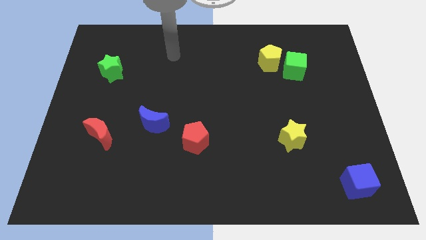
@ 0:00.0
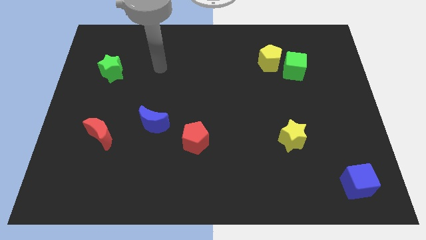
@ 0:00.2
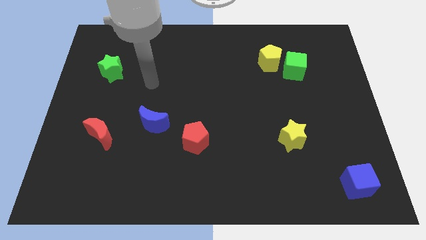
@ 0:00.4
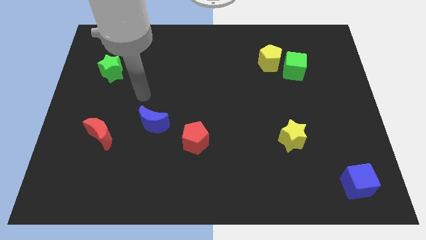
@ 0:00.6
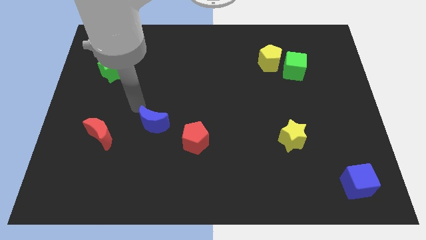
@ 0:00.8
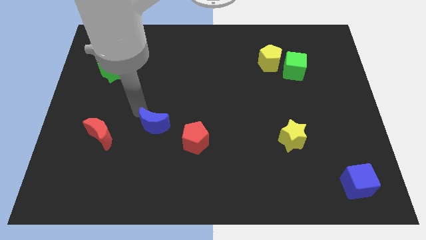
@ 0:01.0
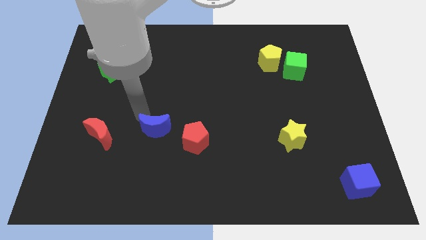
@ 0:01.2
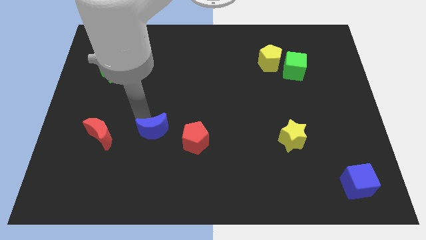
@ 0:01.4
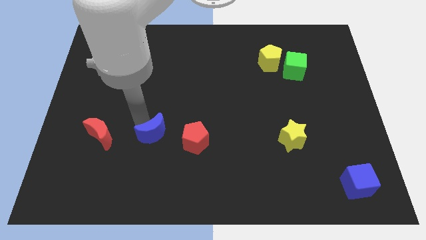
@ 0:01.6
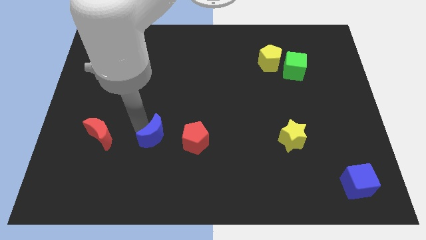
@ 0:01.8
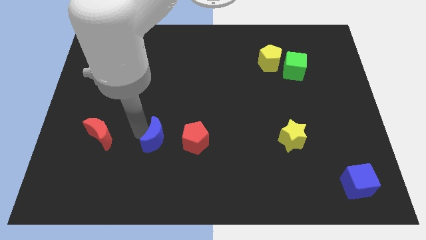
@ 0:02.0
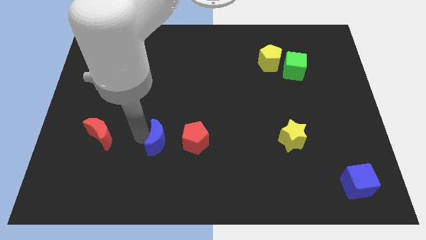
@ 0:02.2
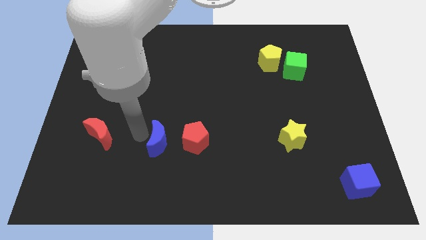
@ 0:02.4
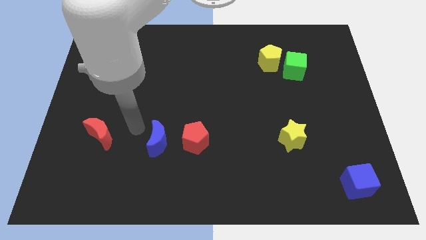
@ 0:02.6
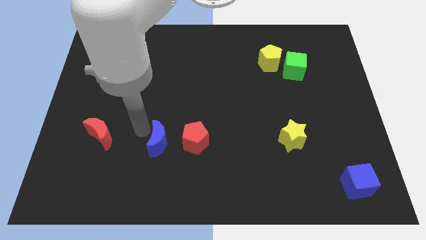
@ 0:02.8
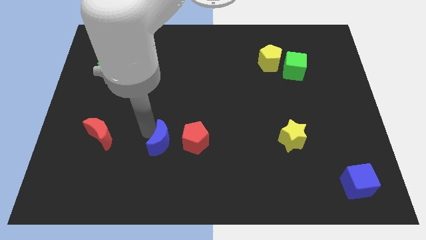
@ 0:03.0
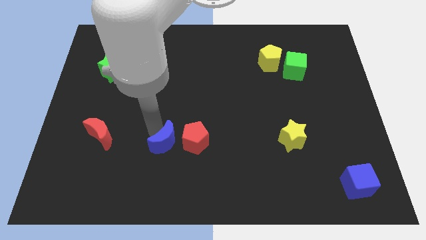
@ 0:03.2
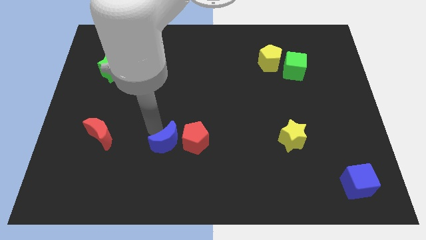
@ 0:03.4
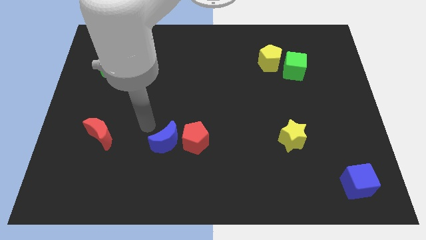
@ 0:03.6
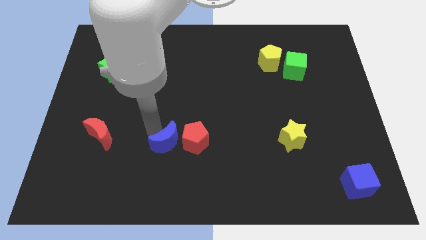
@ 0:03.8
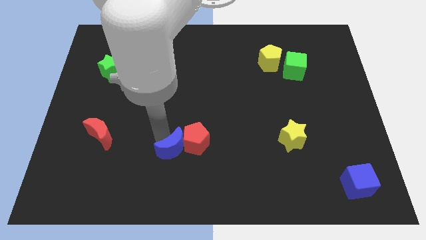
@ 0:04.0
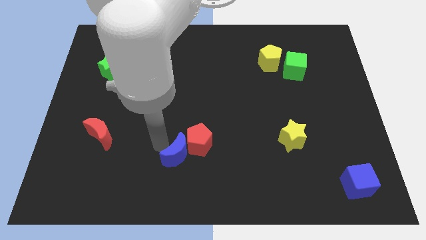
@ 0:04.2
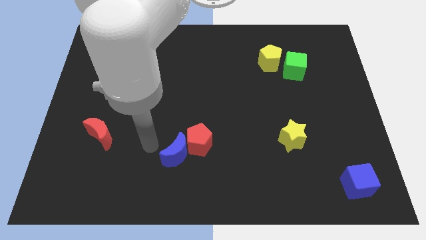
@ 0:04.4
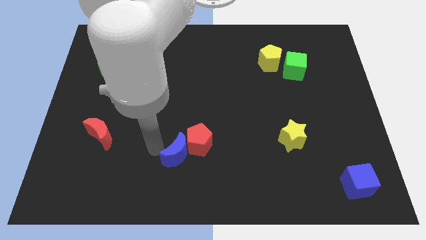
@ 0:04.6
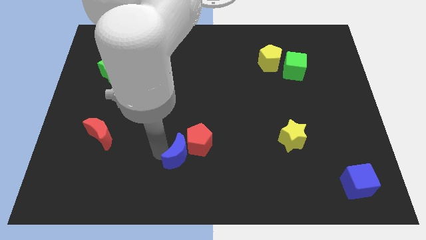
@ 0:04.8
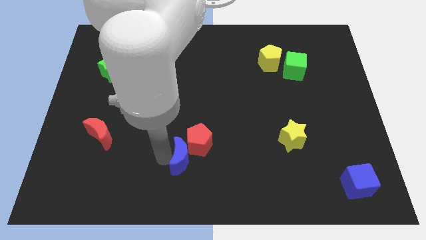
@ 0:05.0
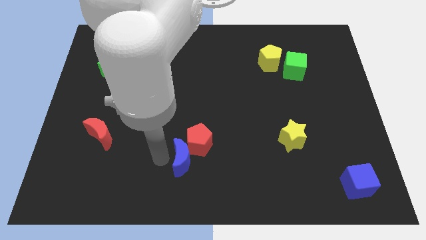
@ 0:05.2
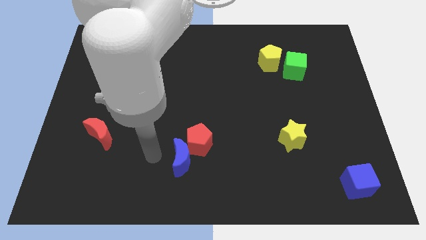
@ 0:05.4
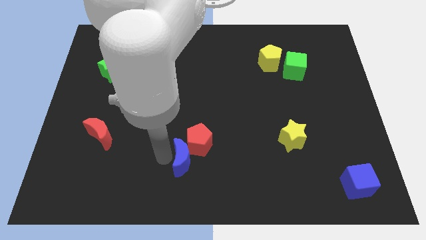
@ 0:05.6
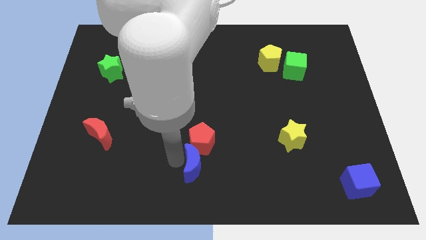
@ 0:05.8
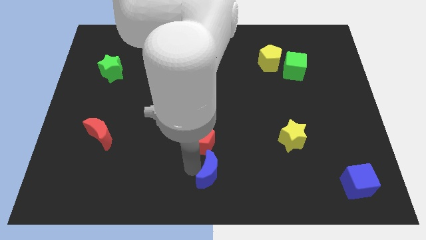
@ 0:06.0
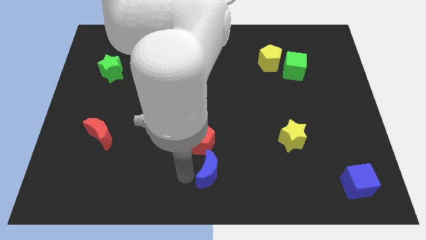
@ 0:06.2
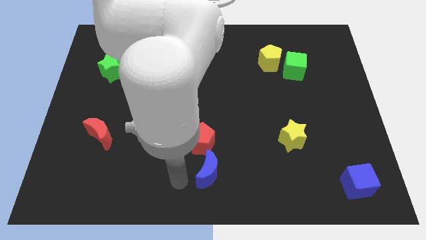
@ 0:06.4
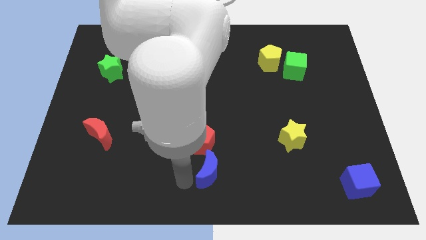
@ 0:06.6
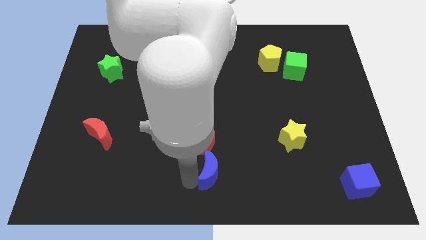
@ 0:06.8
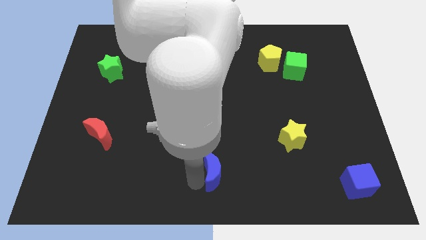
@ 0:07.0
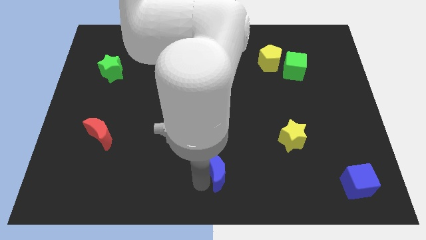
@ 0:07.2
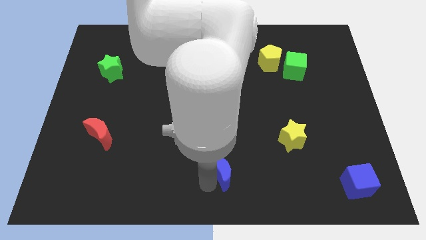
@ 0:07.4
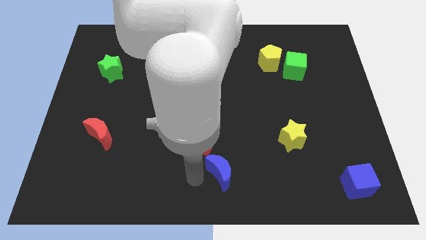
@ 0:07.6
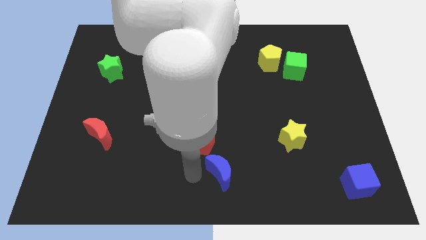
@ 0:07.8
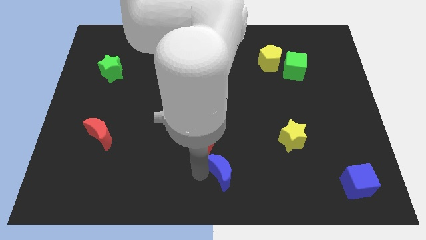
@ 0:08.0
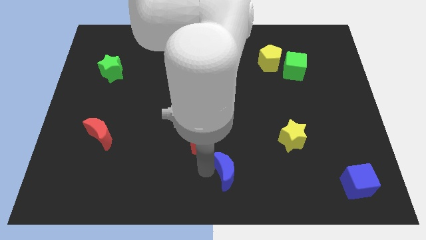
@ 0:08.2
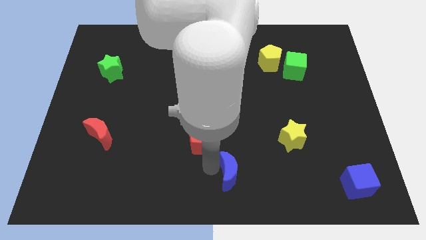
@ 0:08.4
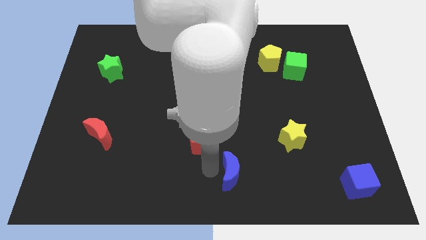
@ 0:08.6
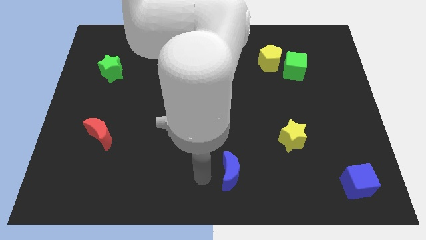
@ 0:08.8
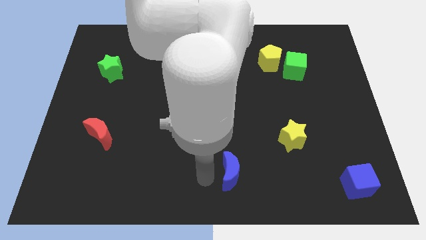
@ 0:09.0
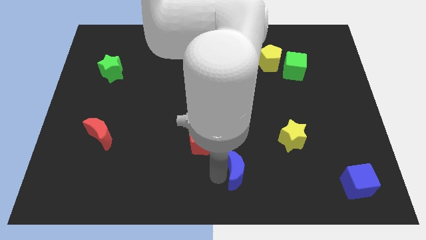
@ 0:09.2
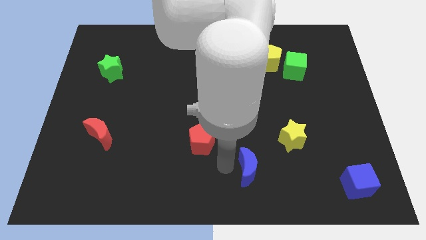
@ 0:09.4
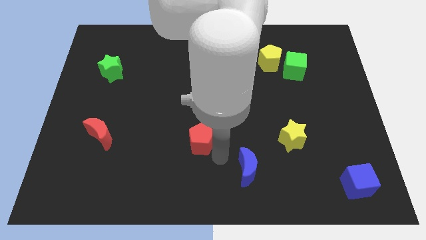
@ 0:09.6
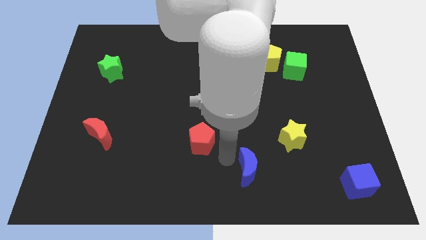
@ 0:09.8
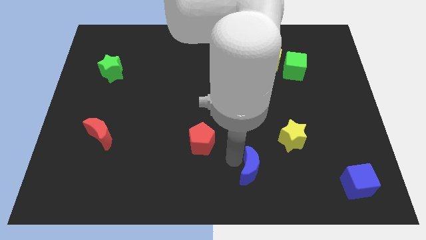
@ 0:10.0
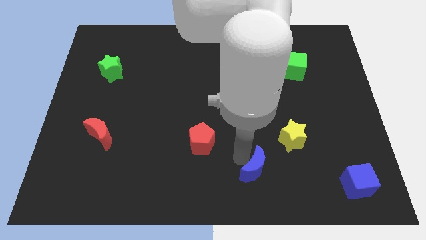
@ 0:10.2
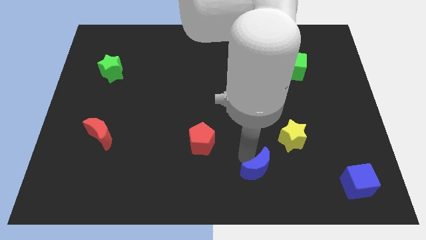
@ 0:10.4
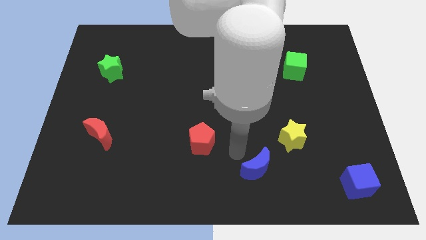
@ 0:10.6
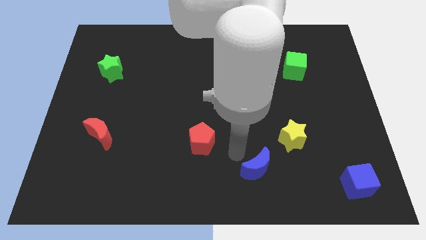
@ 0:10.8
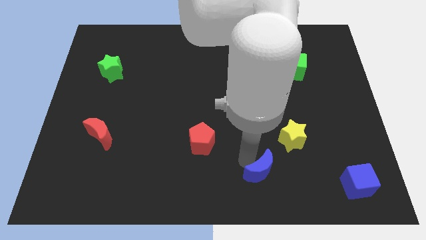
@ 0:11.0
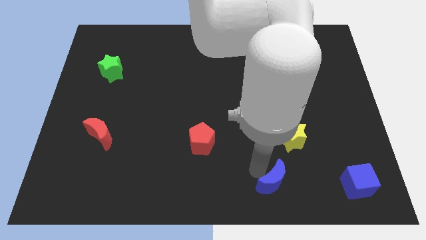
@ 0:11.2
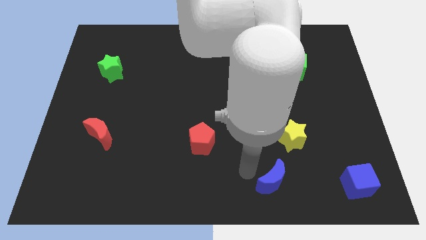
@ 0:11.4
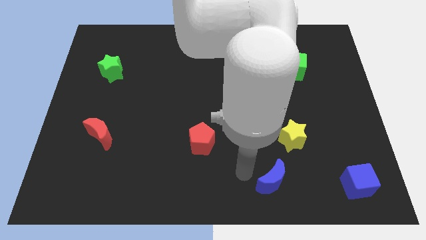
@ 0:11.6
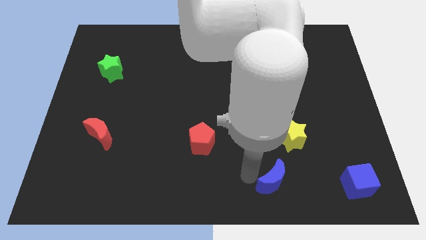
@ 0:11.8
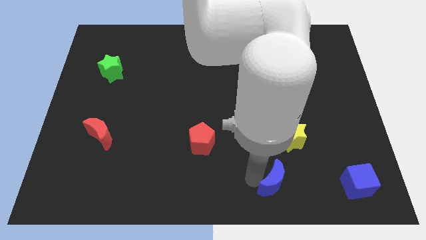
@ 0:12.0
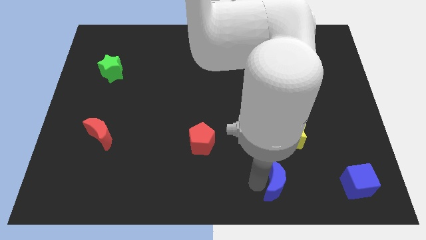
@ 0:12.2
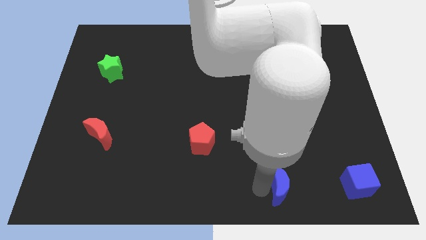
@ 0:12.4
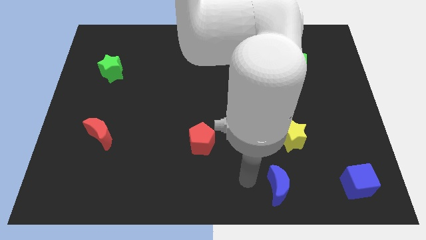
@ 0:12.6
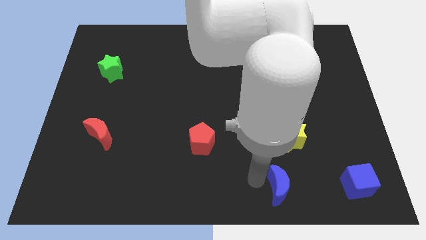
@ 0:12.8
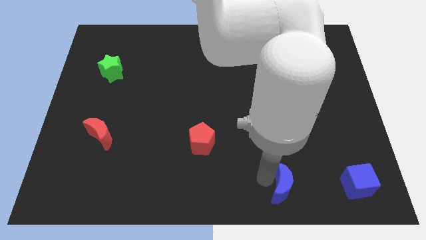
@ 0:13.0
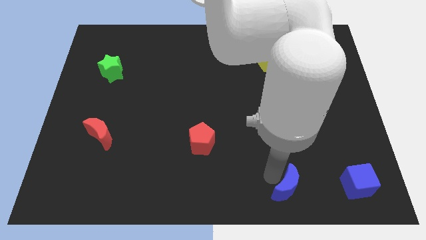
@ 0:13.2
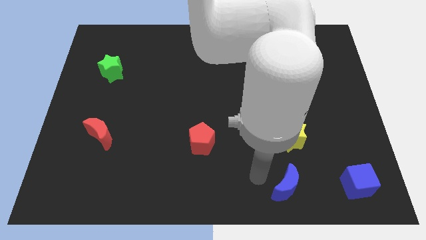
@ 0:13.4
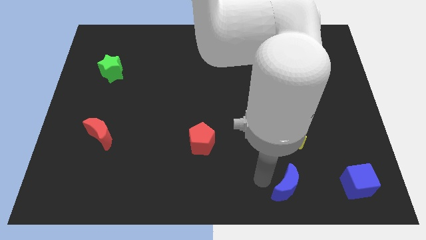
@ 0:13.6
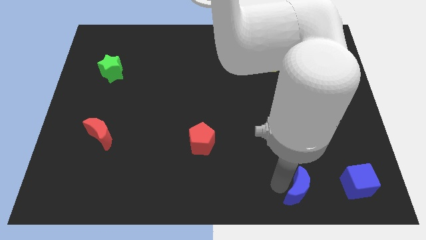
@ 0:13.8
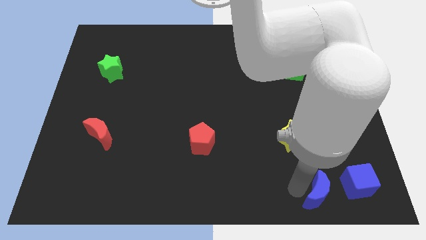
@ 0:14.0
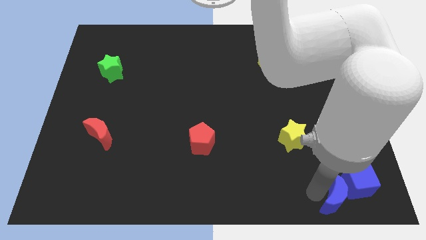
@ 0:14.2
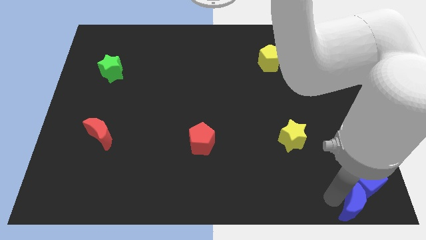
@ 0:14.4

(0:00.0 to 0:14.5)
move the blue moon to the bottom right
